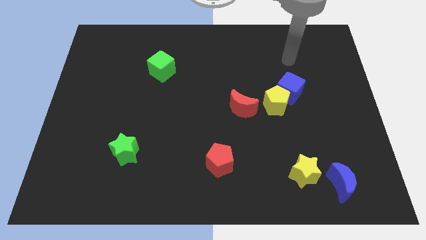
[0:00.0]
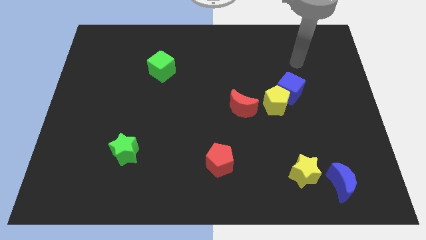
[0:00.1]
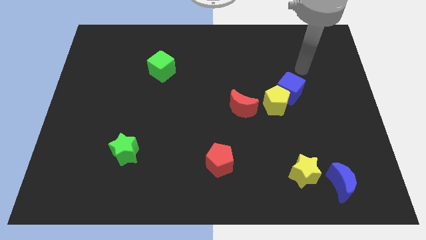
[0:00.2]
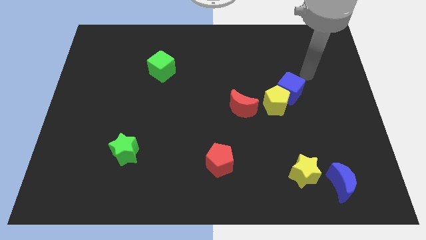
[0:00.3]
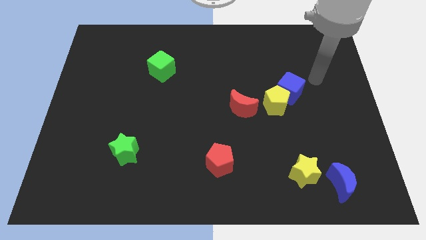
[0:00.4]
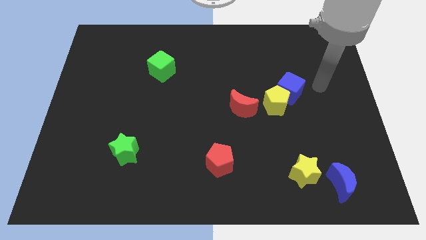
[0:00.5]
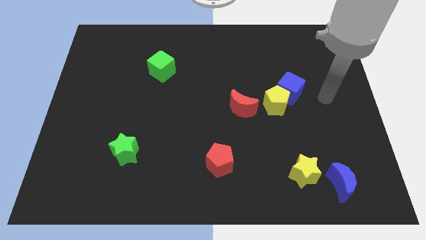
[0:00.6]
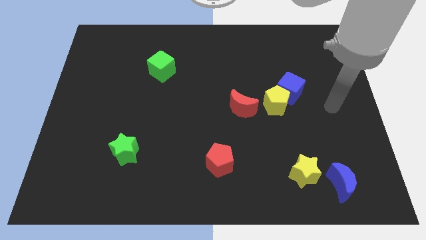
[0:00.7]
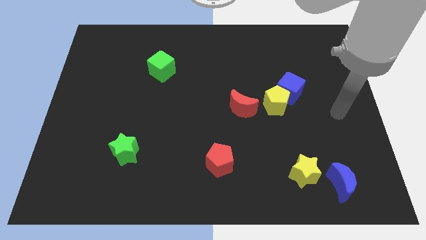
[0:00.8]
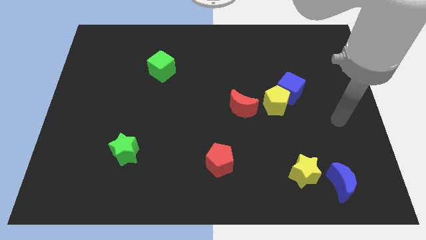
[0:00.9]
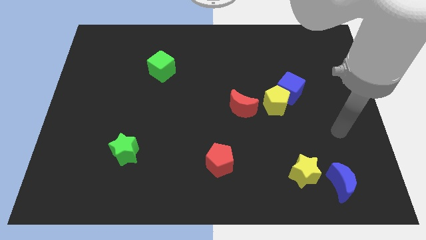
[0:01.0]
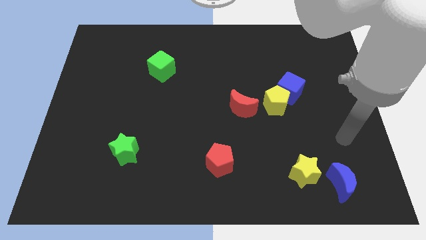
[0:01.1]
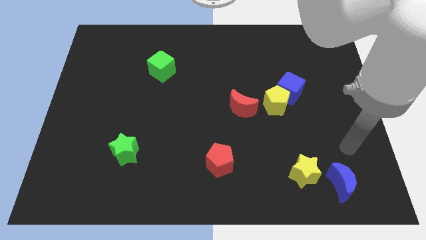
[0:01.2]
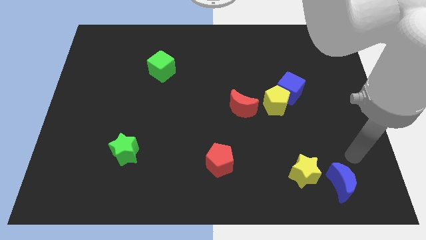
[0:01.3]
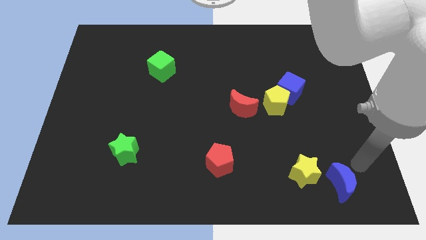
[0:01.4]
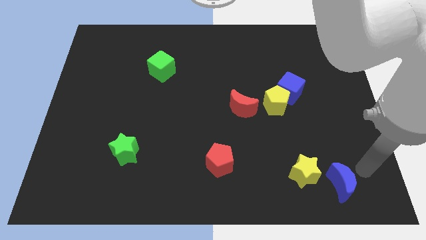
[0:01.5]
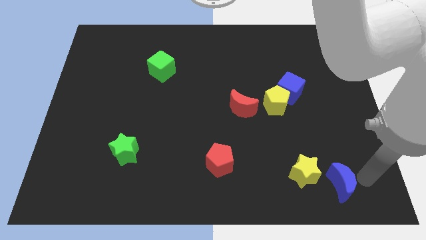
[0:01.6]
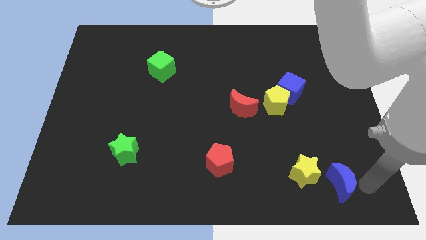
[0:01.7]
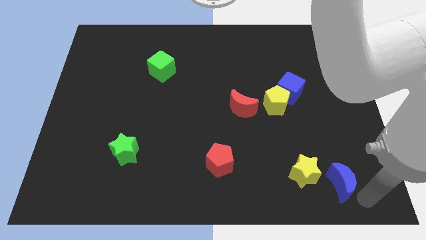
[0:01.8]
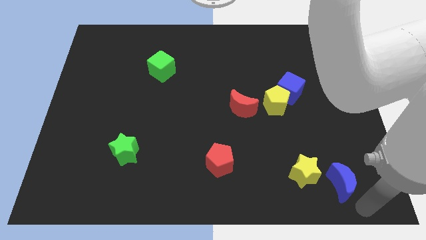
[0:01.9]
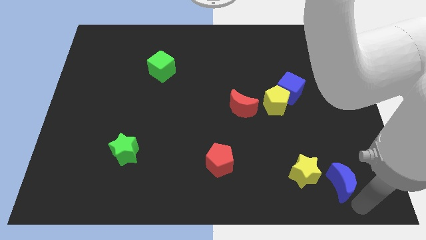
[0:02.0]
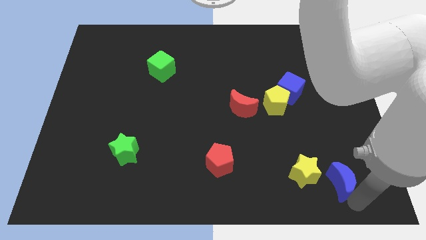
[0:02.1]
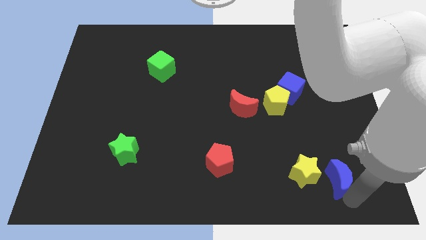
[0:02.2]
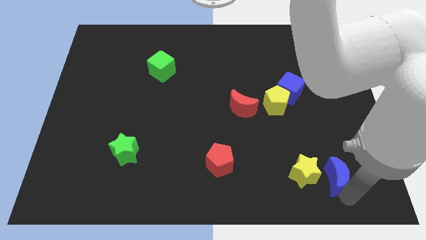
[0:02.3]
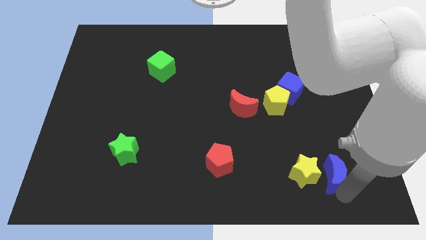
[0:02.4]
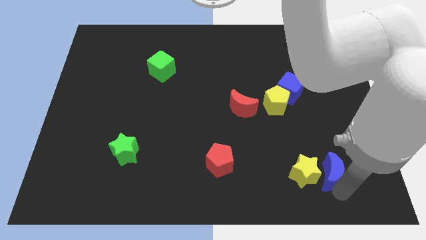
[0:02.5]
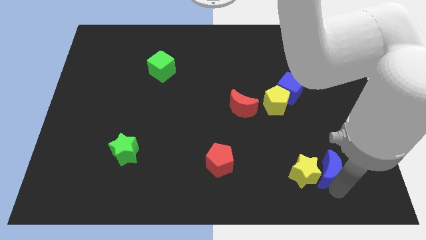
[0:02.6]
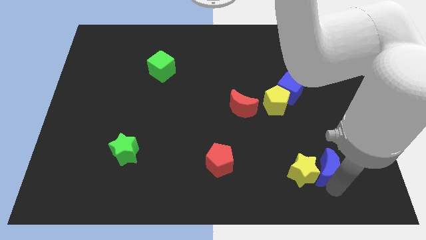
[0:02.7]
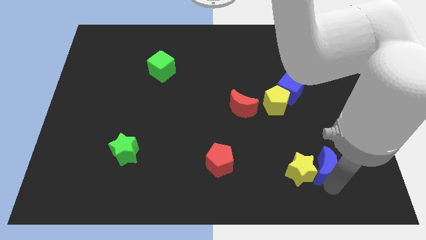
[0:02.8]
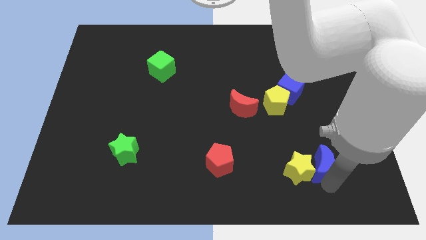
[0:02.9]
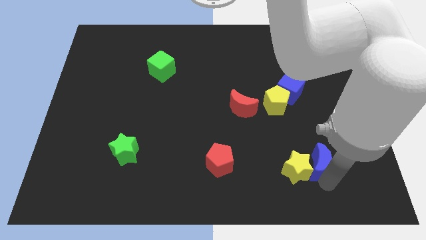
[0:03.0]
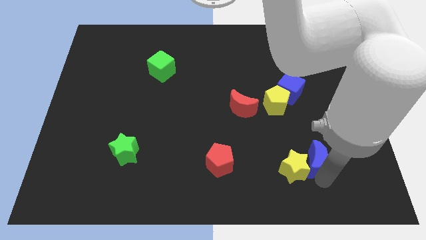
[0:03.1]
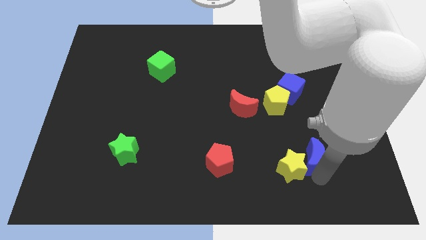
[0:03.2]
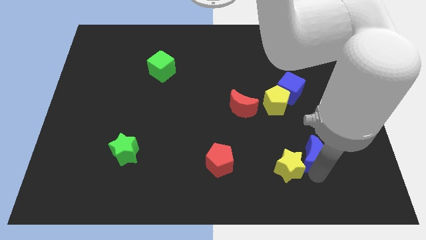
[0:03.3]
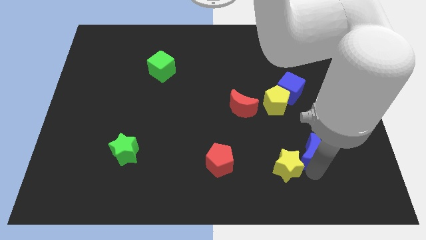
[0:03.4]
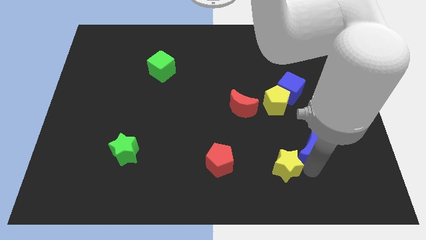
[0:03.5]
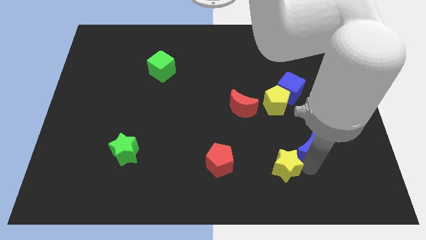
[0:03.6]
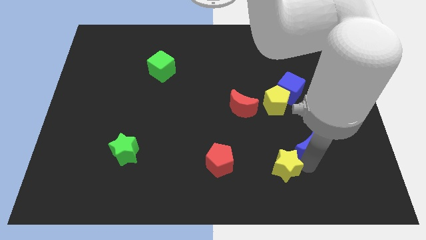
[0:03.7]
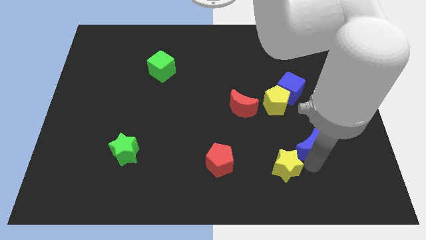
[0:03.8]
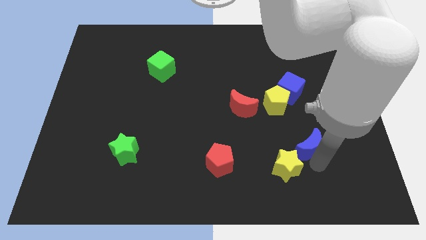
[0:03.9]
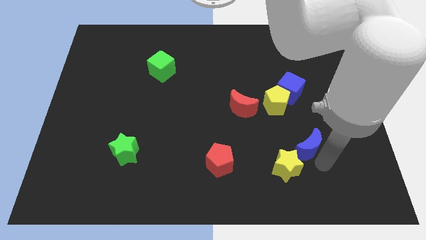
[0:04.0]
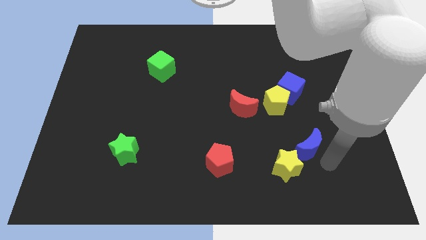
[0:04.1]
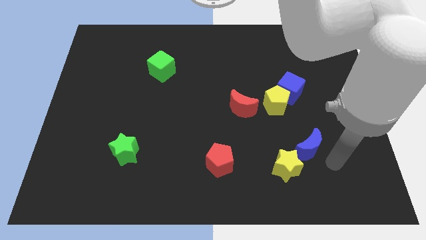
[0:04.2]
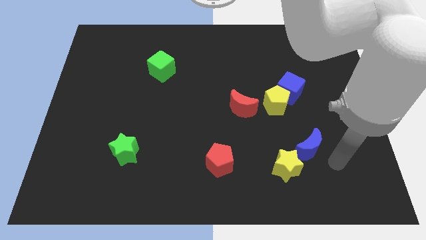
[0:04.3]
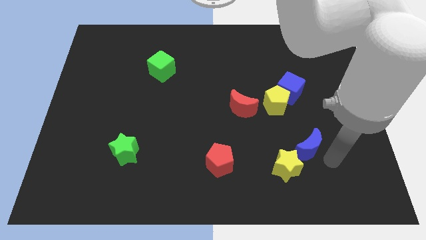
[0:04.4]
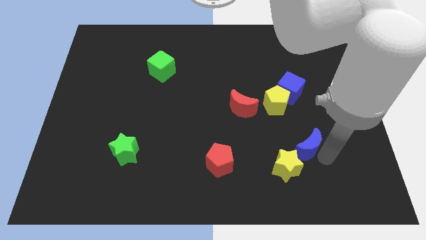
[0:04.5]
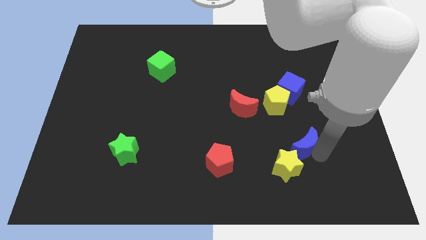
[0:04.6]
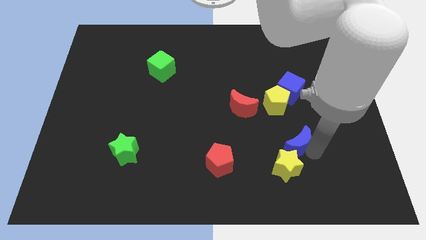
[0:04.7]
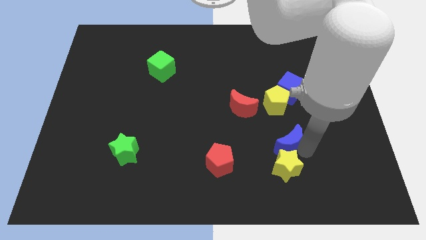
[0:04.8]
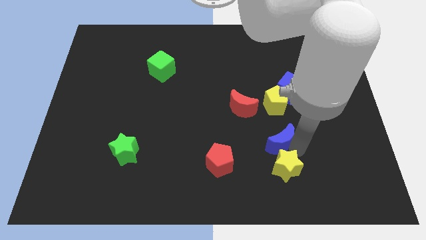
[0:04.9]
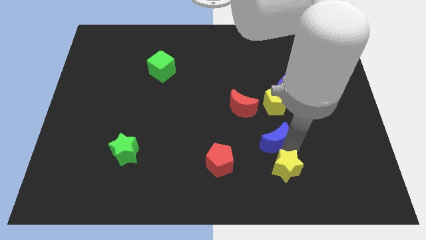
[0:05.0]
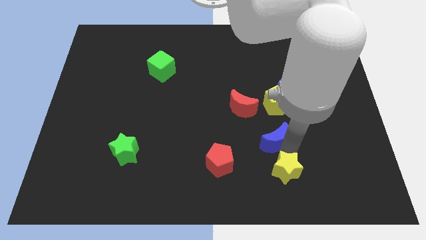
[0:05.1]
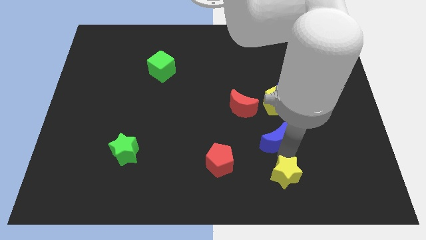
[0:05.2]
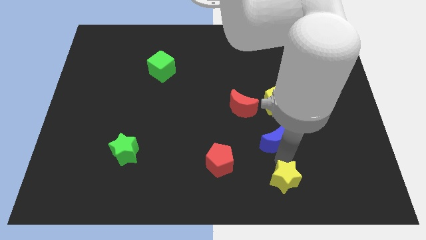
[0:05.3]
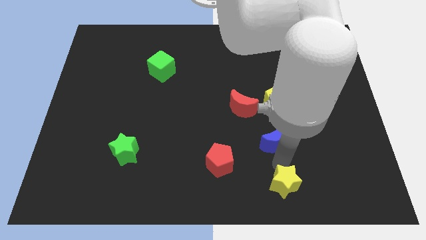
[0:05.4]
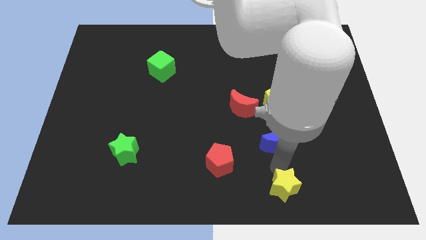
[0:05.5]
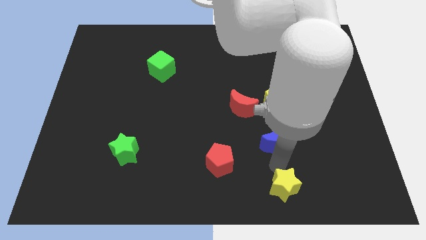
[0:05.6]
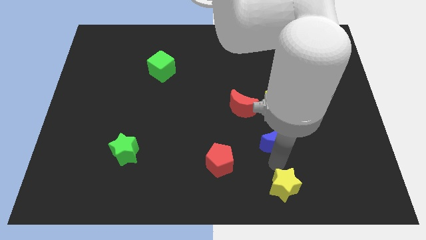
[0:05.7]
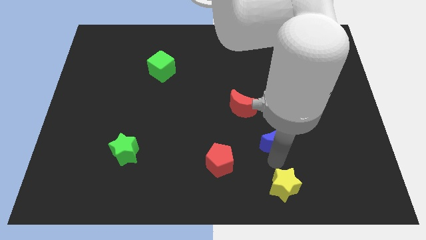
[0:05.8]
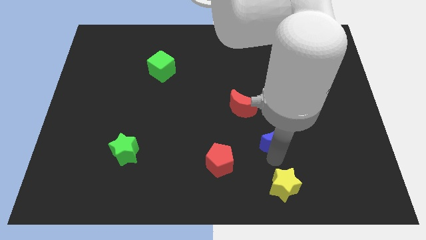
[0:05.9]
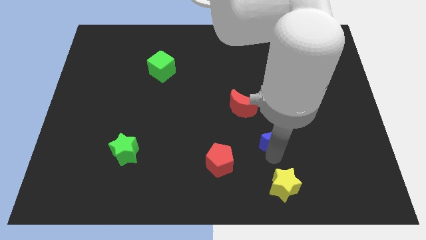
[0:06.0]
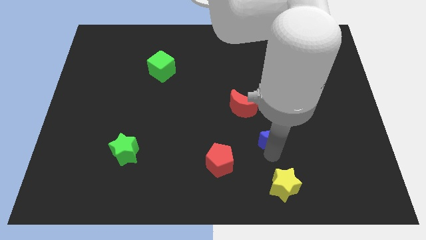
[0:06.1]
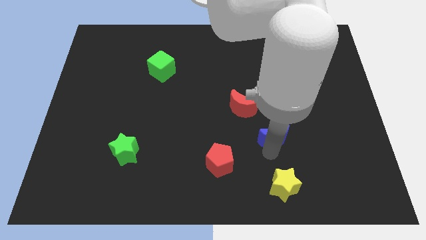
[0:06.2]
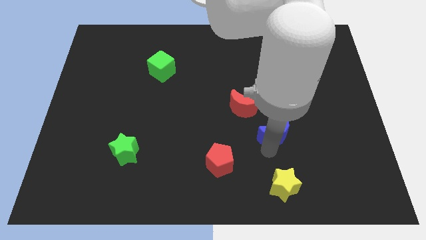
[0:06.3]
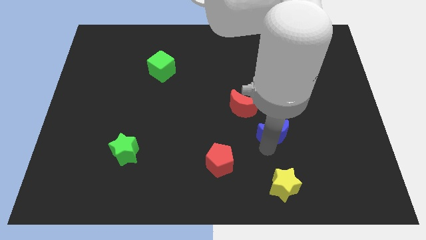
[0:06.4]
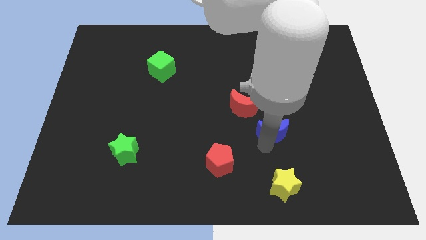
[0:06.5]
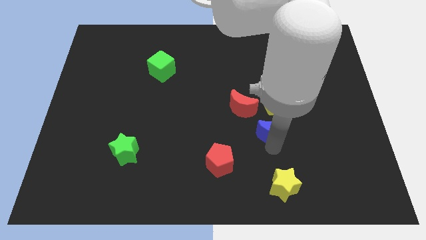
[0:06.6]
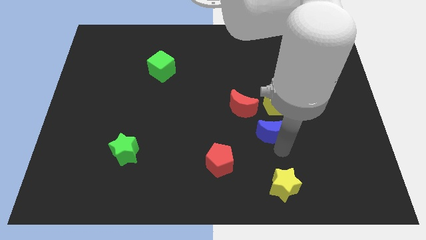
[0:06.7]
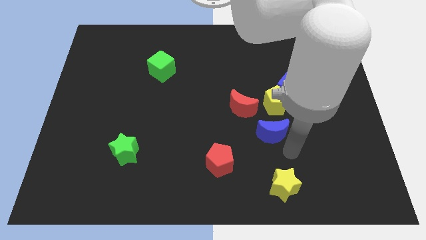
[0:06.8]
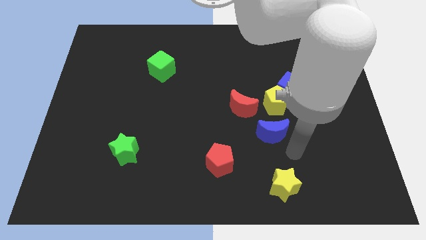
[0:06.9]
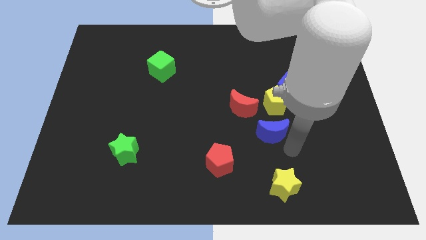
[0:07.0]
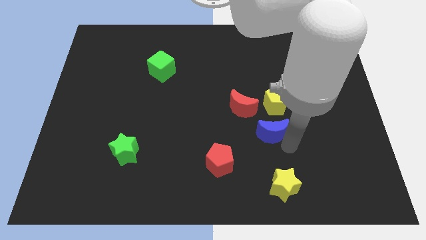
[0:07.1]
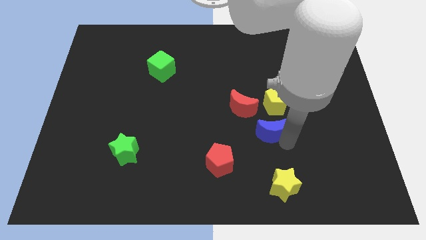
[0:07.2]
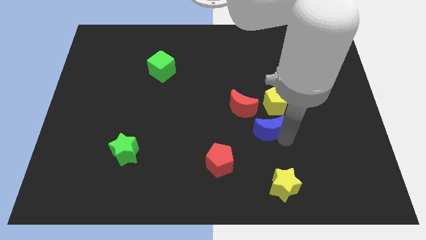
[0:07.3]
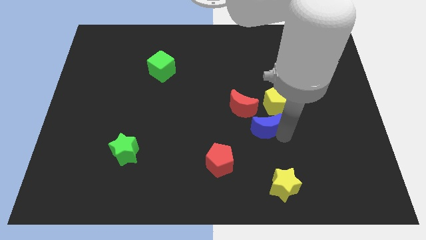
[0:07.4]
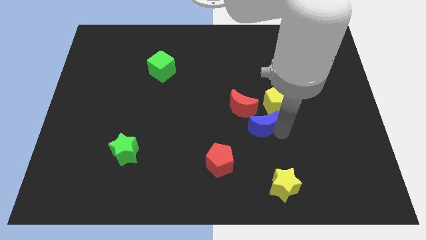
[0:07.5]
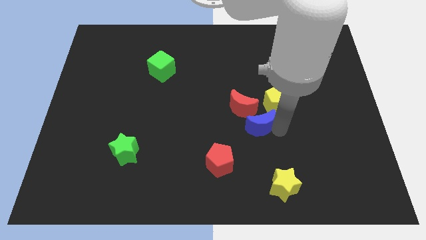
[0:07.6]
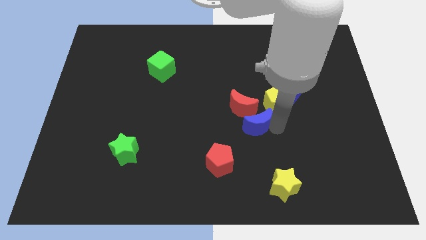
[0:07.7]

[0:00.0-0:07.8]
move the blue moon close to the red moon
